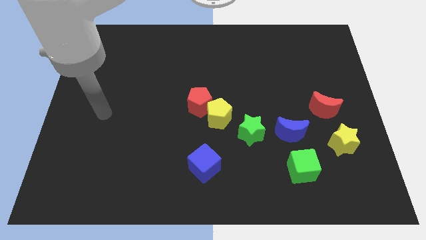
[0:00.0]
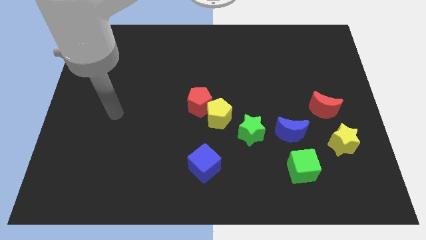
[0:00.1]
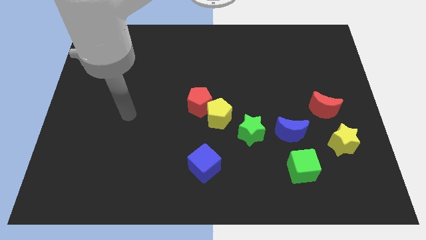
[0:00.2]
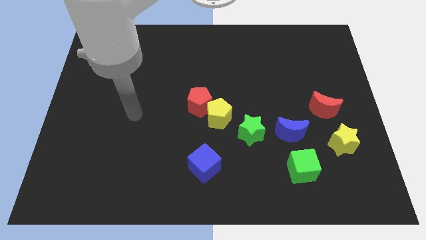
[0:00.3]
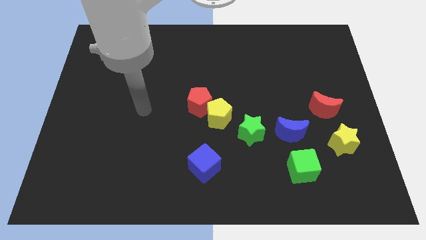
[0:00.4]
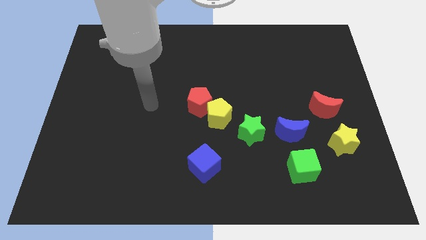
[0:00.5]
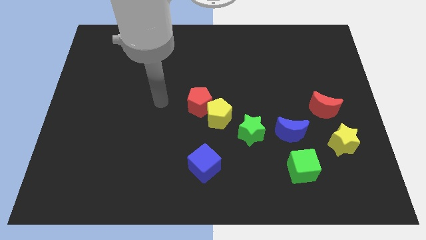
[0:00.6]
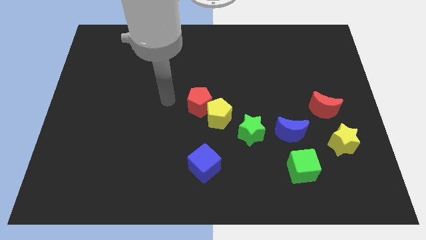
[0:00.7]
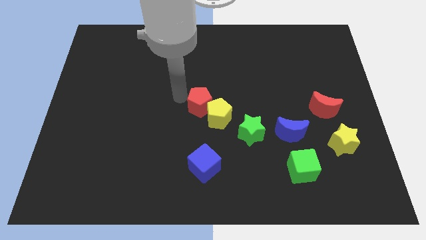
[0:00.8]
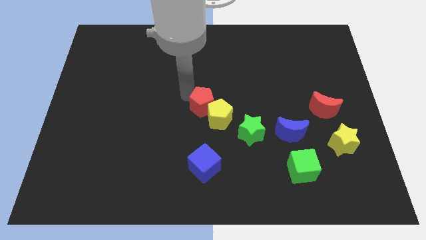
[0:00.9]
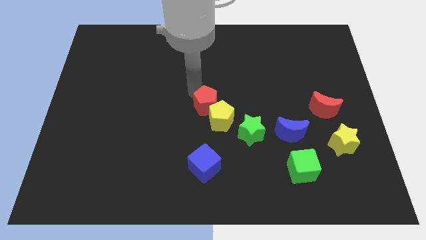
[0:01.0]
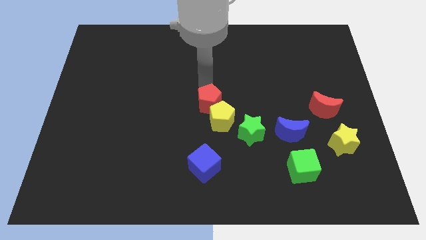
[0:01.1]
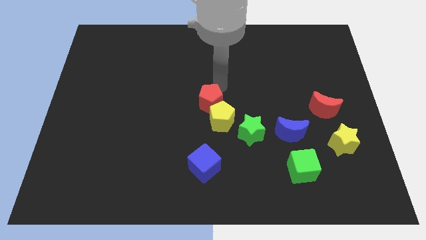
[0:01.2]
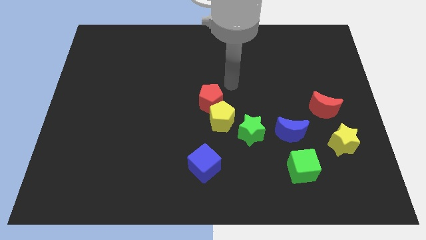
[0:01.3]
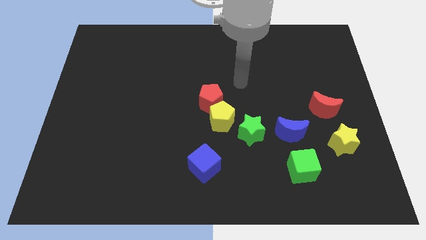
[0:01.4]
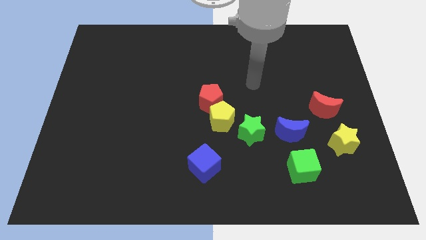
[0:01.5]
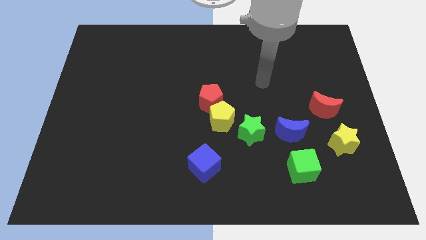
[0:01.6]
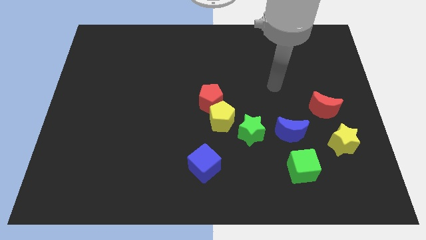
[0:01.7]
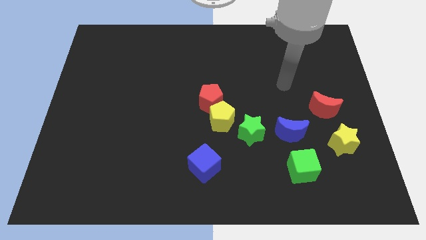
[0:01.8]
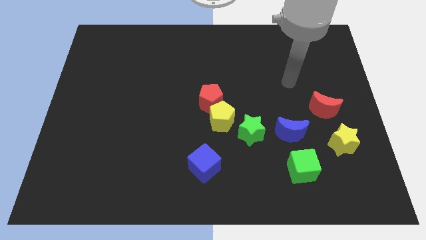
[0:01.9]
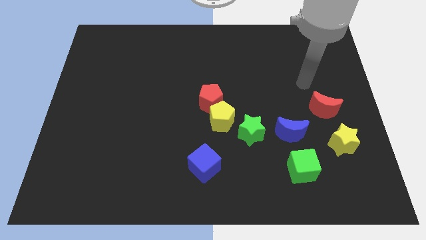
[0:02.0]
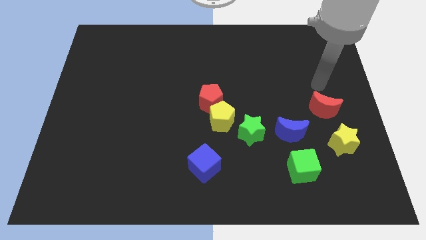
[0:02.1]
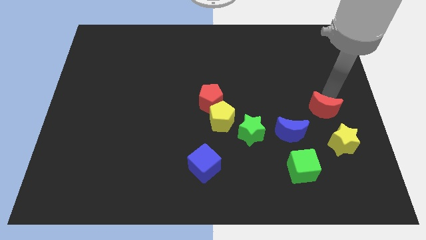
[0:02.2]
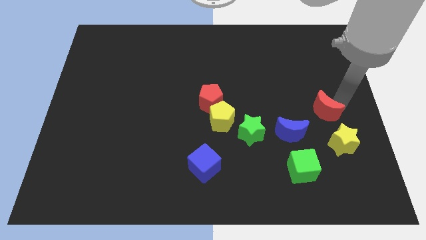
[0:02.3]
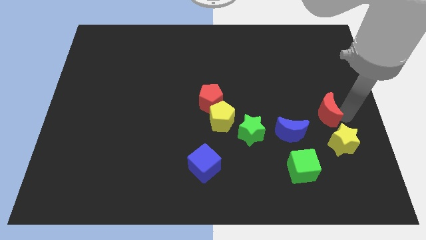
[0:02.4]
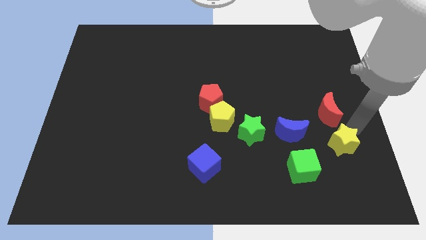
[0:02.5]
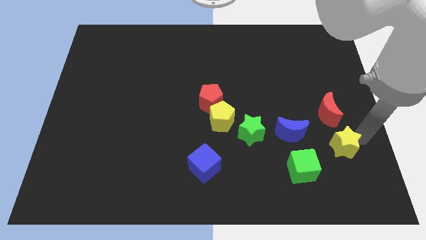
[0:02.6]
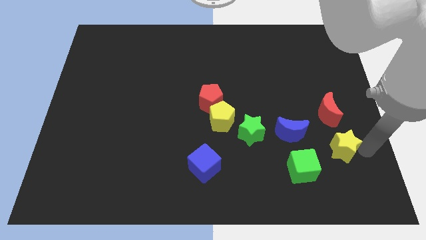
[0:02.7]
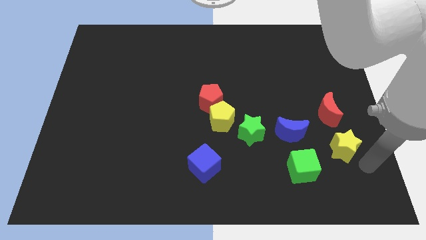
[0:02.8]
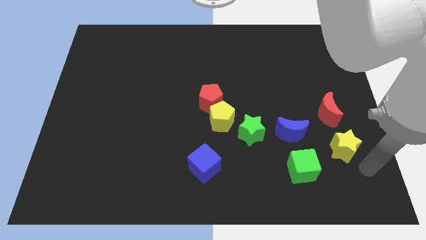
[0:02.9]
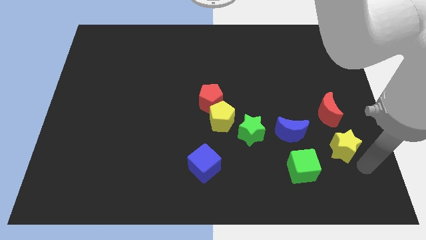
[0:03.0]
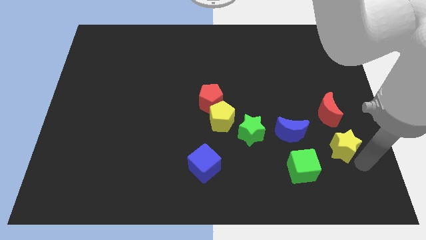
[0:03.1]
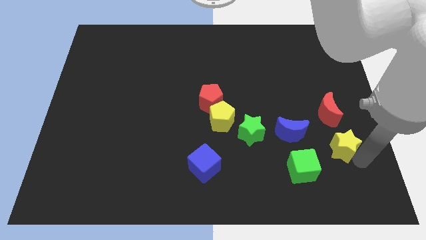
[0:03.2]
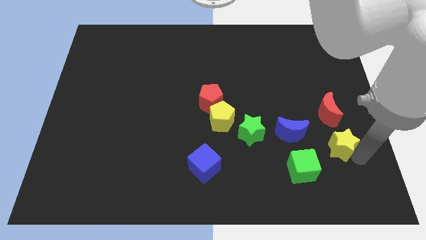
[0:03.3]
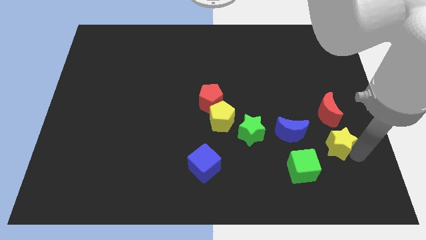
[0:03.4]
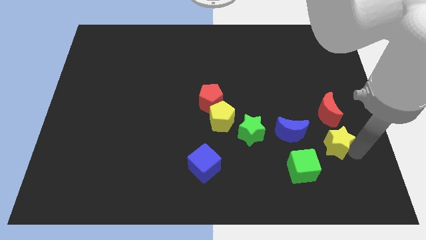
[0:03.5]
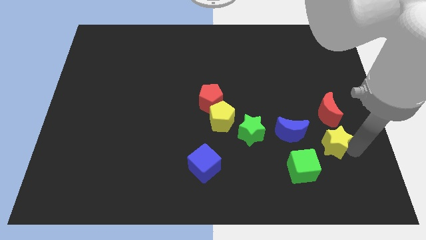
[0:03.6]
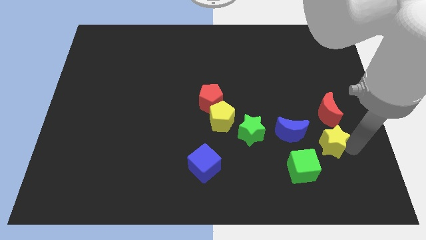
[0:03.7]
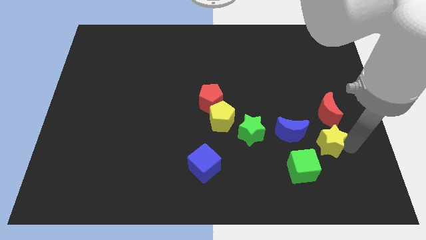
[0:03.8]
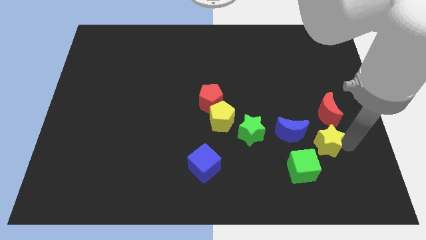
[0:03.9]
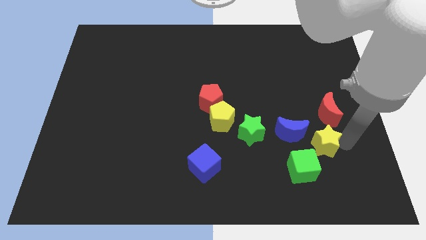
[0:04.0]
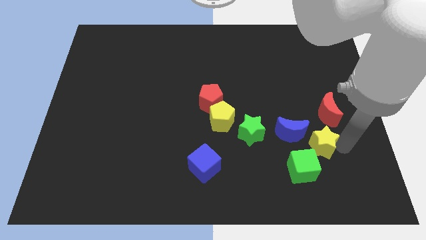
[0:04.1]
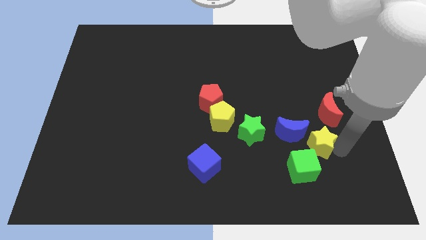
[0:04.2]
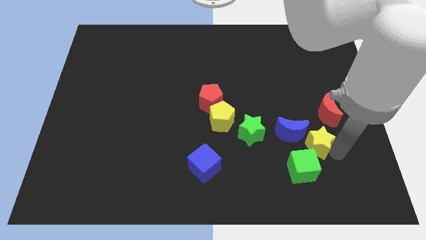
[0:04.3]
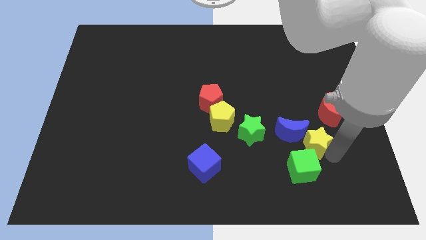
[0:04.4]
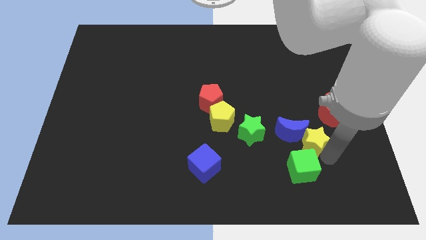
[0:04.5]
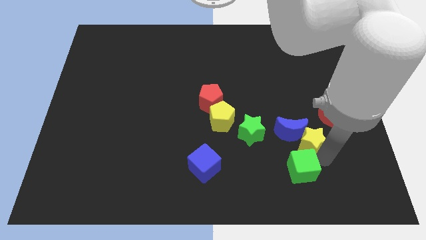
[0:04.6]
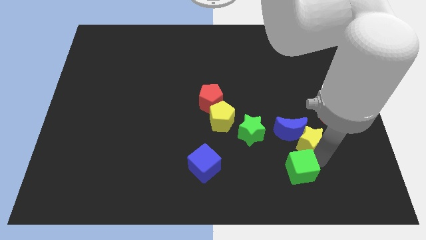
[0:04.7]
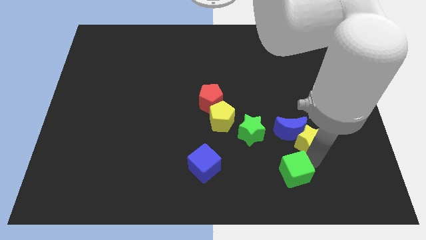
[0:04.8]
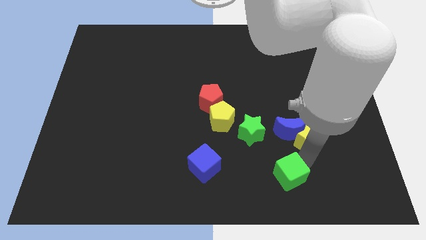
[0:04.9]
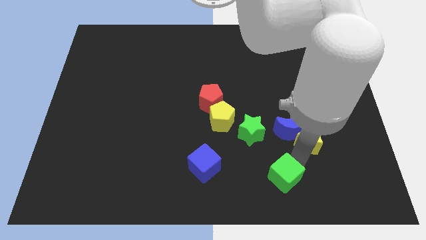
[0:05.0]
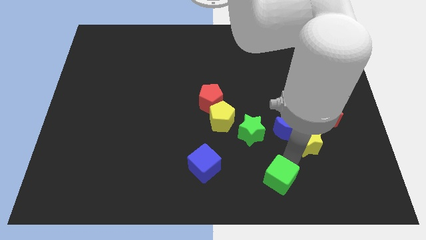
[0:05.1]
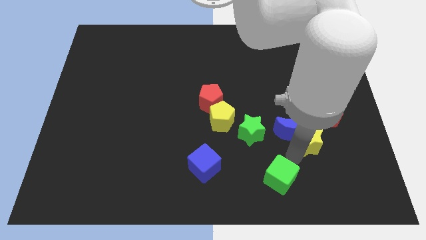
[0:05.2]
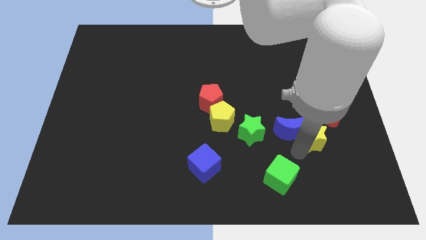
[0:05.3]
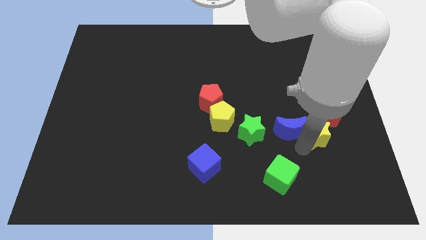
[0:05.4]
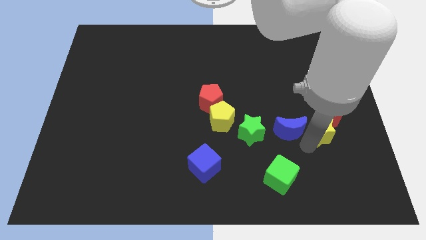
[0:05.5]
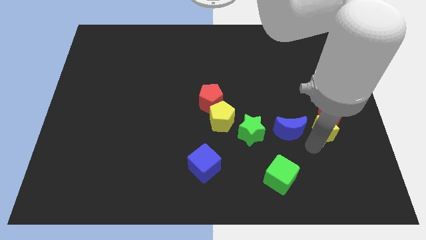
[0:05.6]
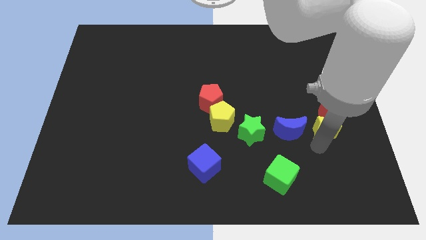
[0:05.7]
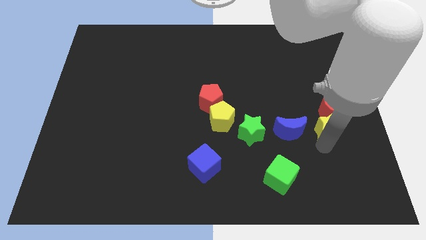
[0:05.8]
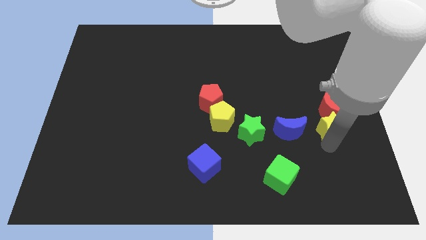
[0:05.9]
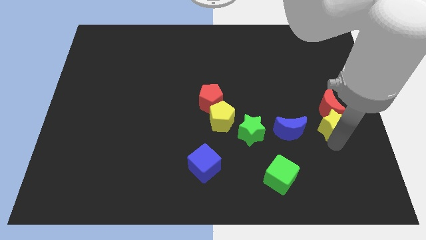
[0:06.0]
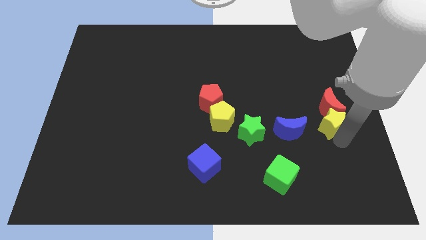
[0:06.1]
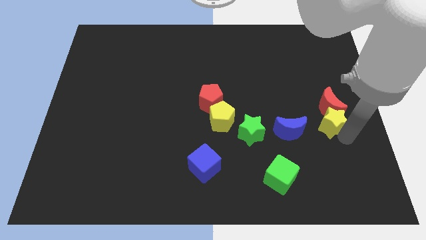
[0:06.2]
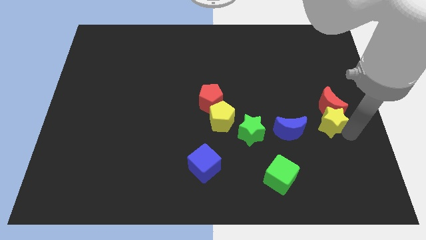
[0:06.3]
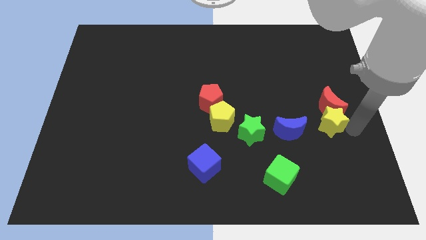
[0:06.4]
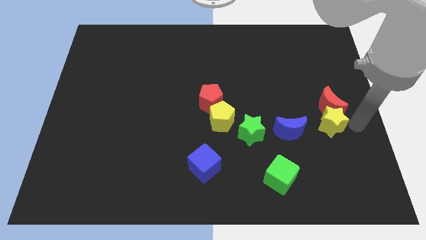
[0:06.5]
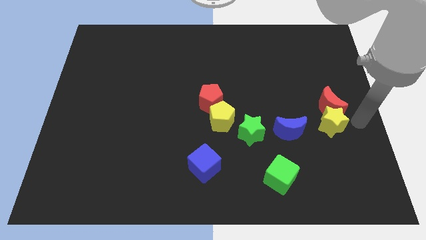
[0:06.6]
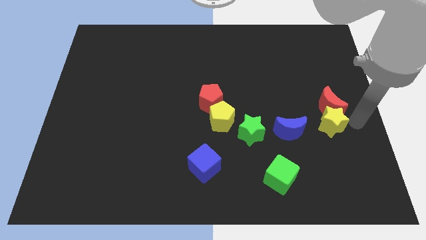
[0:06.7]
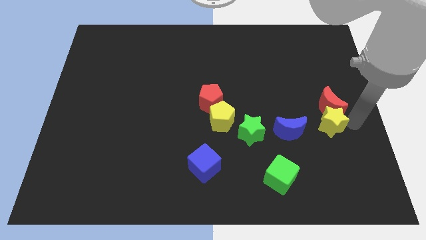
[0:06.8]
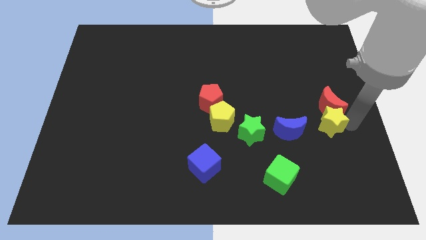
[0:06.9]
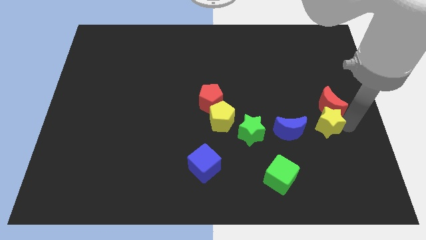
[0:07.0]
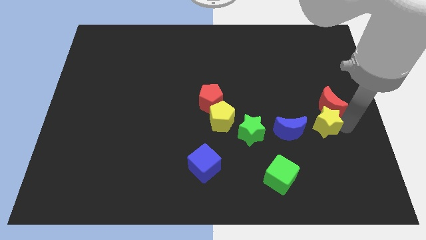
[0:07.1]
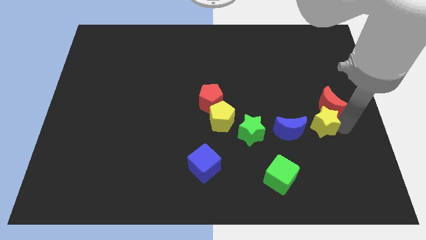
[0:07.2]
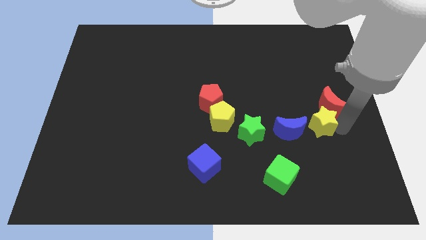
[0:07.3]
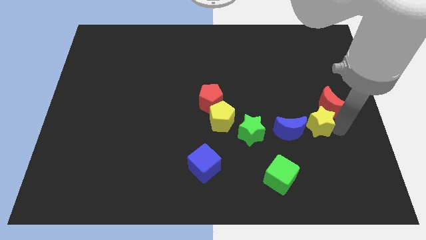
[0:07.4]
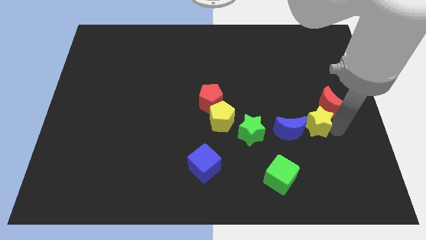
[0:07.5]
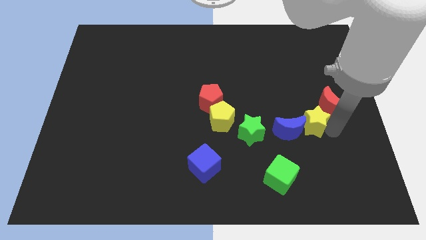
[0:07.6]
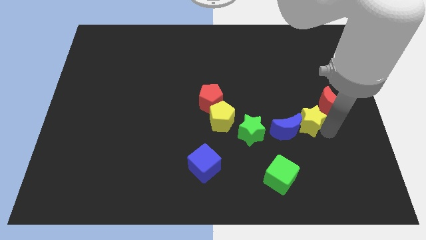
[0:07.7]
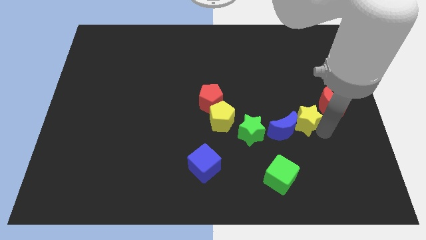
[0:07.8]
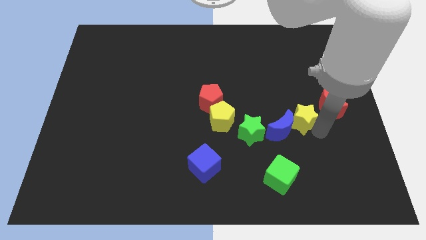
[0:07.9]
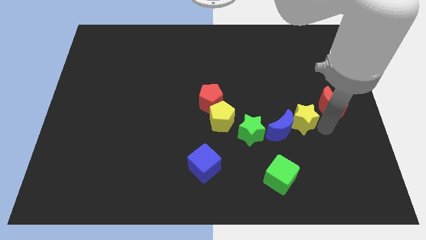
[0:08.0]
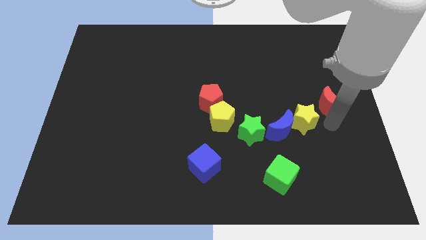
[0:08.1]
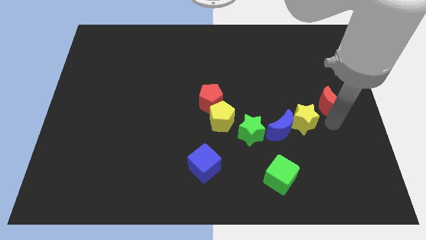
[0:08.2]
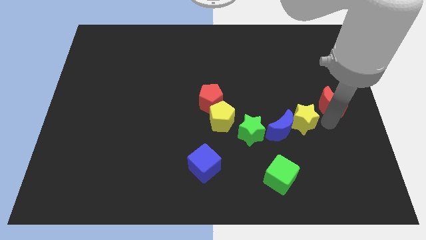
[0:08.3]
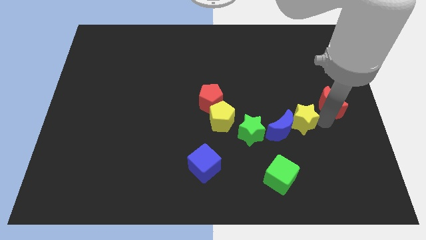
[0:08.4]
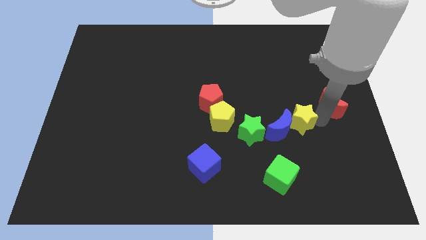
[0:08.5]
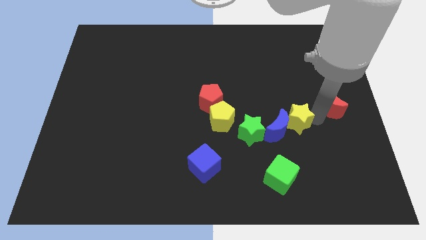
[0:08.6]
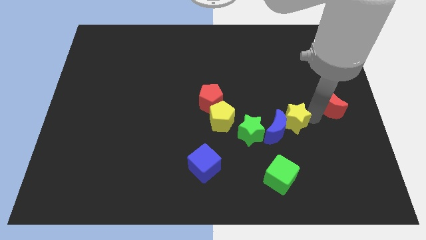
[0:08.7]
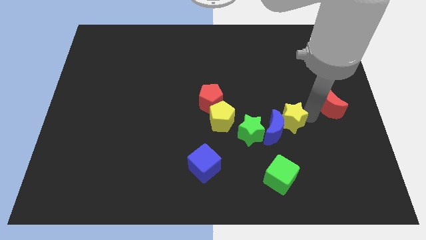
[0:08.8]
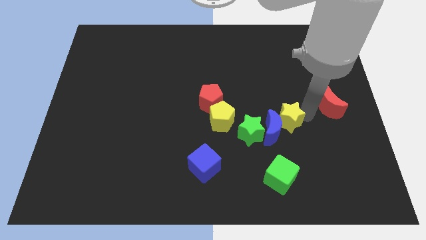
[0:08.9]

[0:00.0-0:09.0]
move the yellow star to the right side of the yellow pentagon
